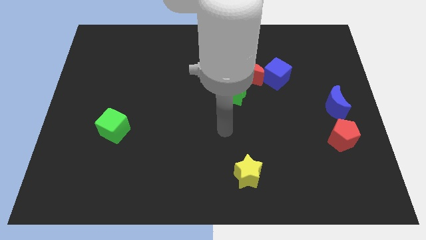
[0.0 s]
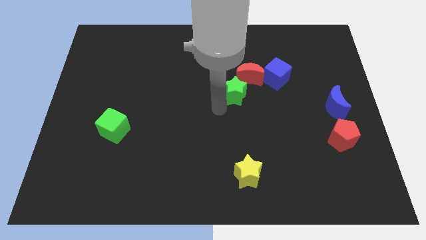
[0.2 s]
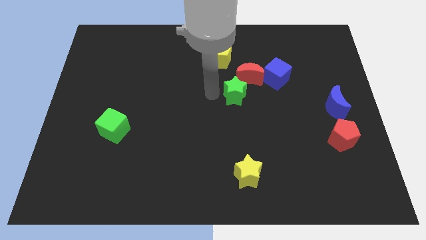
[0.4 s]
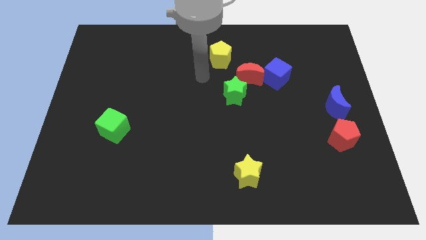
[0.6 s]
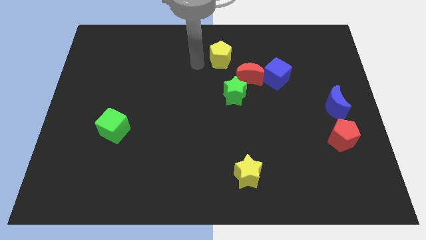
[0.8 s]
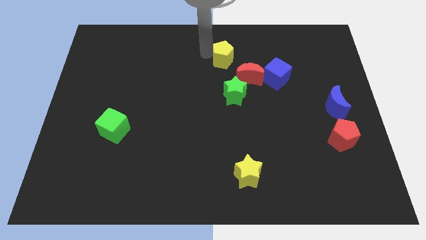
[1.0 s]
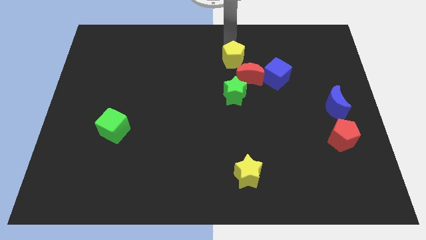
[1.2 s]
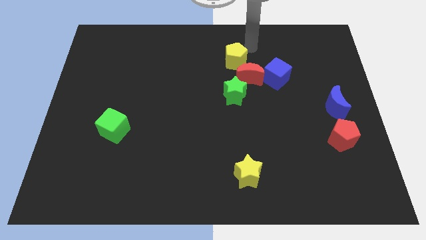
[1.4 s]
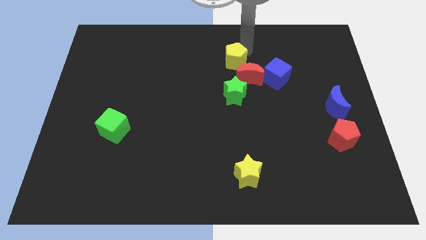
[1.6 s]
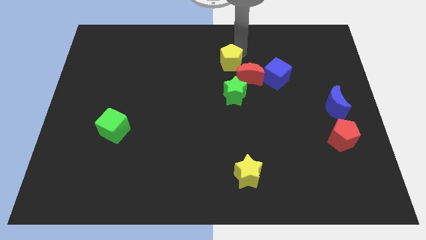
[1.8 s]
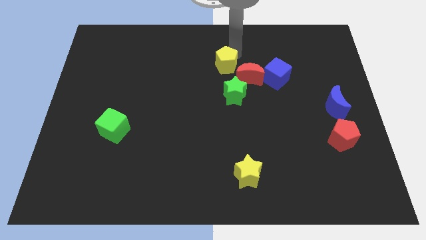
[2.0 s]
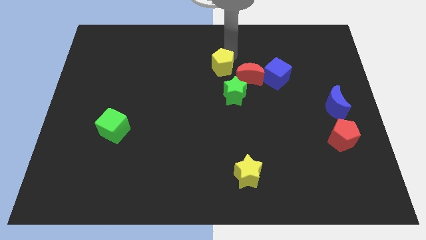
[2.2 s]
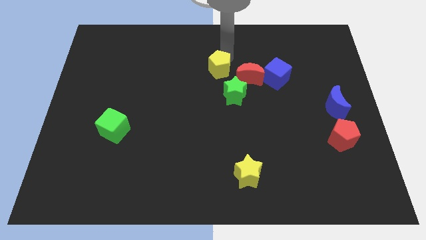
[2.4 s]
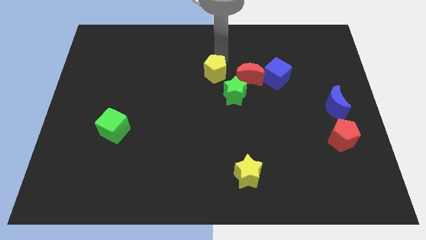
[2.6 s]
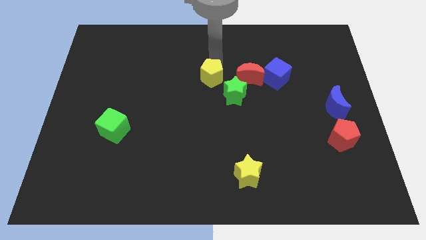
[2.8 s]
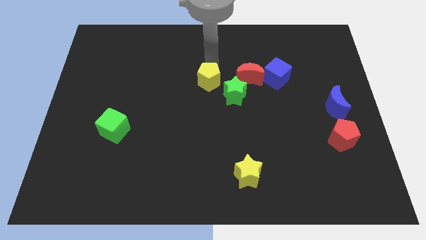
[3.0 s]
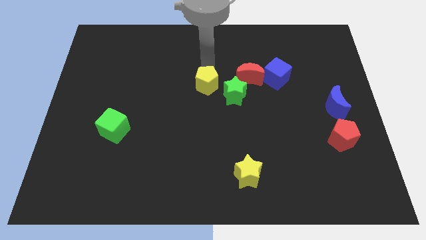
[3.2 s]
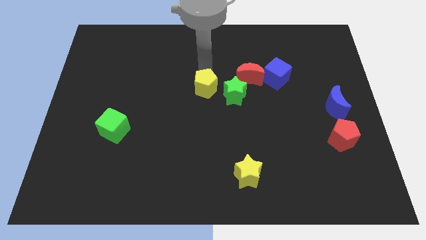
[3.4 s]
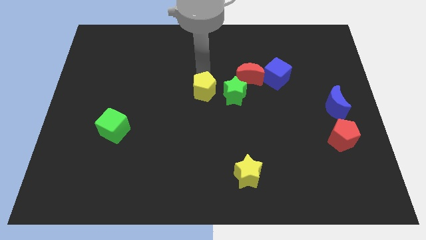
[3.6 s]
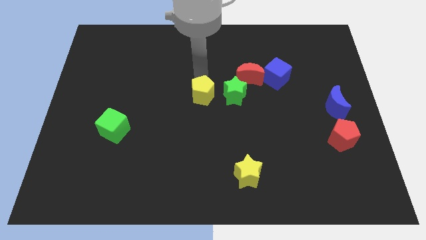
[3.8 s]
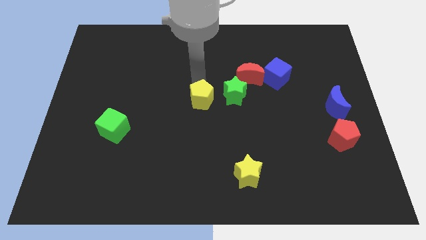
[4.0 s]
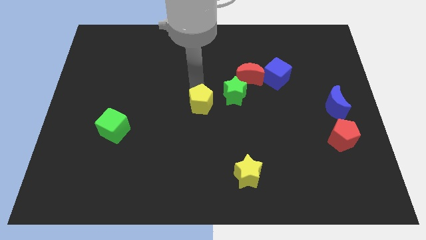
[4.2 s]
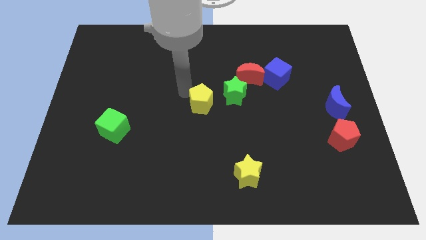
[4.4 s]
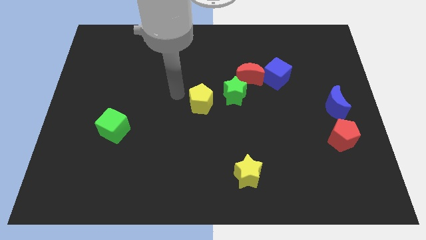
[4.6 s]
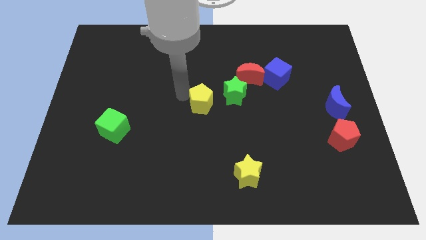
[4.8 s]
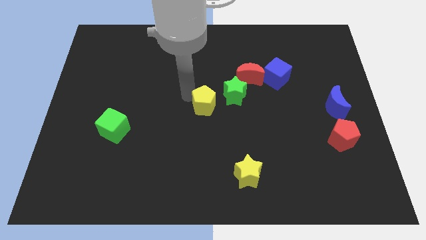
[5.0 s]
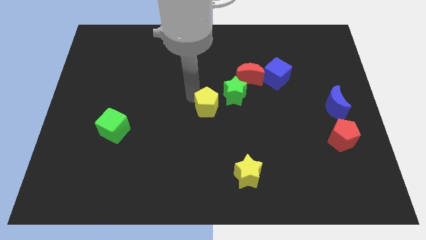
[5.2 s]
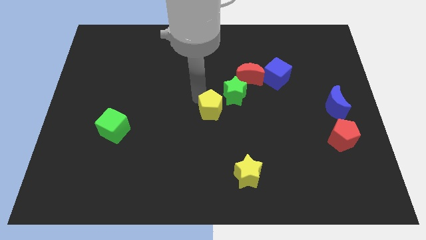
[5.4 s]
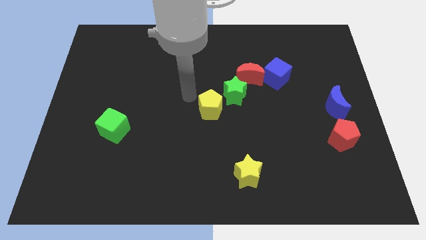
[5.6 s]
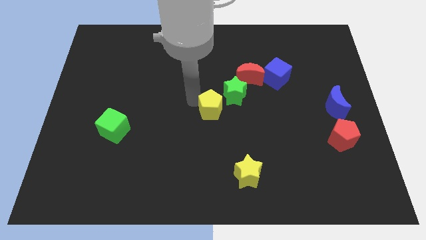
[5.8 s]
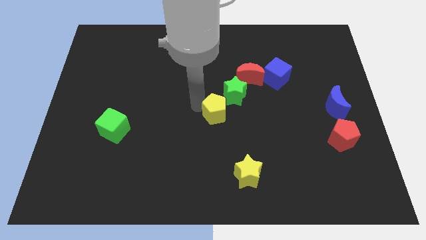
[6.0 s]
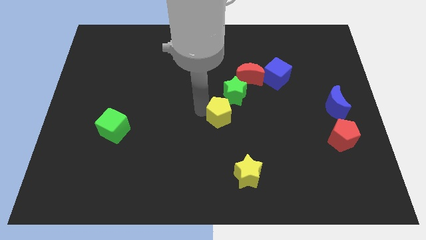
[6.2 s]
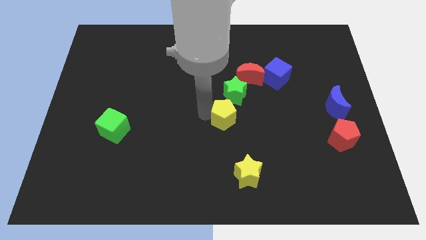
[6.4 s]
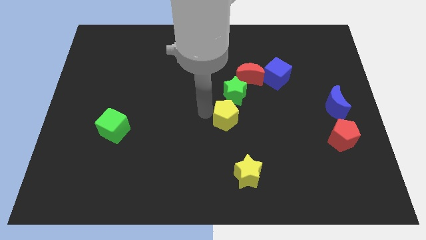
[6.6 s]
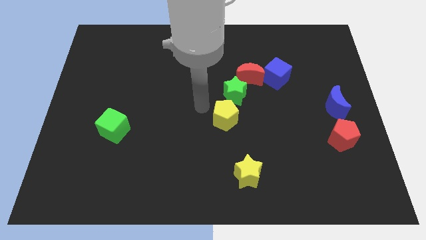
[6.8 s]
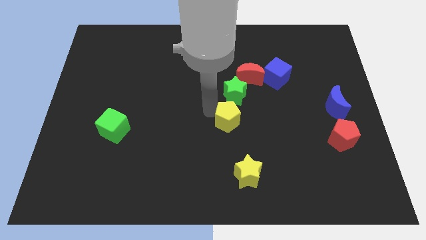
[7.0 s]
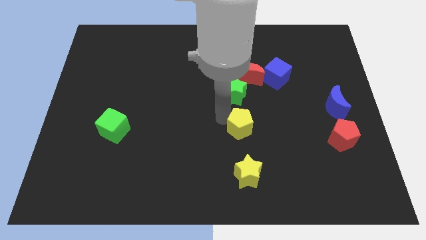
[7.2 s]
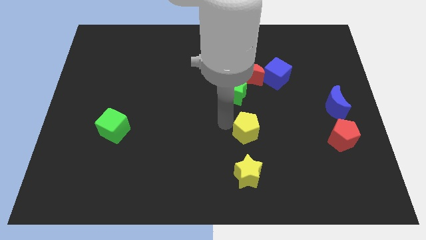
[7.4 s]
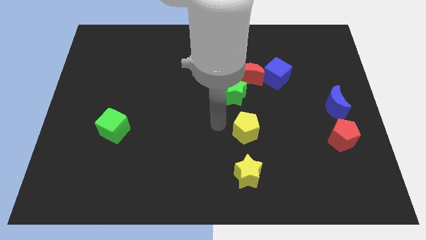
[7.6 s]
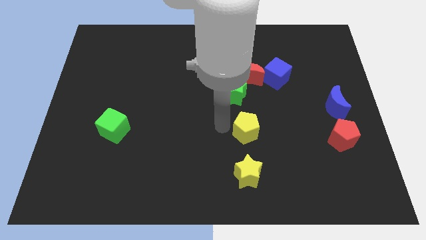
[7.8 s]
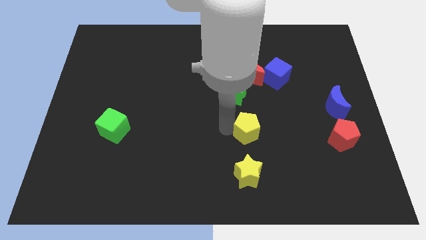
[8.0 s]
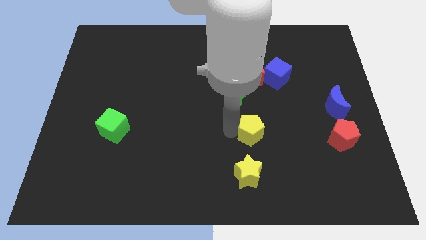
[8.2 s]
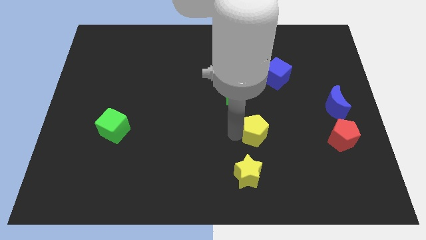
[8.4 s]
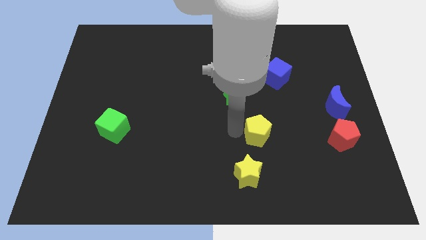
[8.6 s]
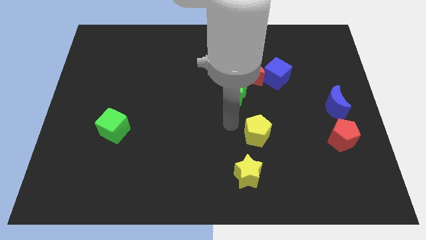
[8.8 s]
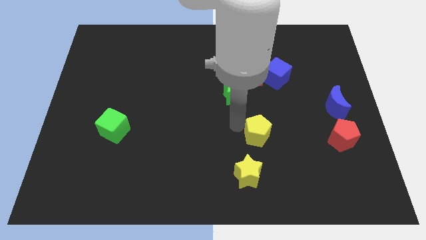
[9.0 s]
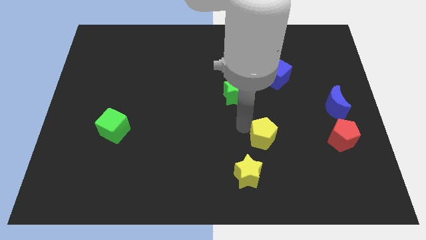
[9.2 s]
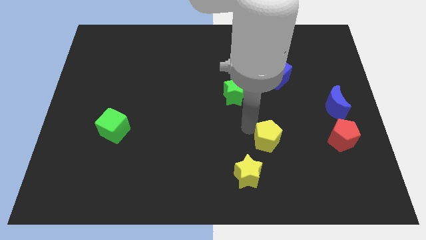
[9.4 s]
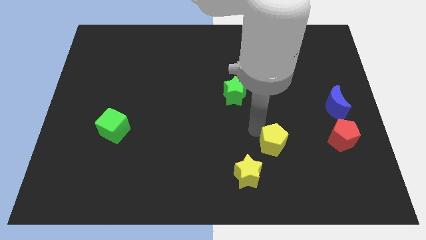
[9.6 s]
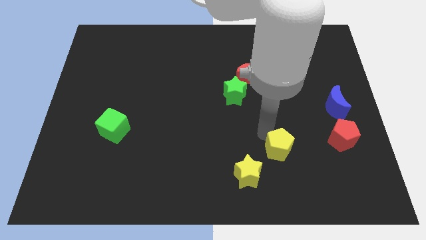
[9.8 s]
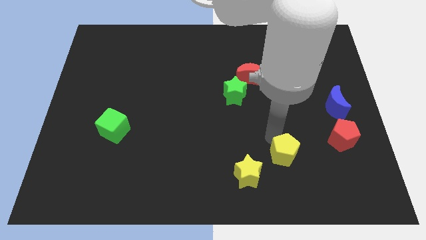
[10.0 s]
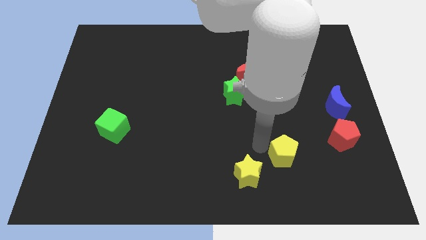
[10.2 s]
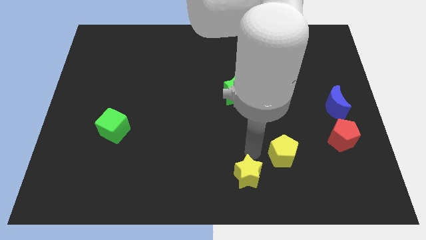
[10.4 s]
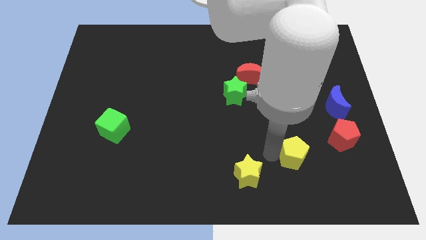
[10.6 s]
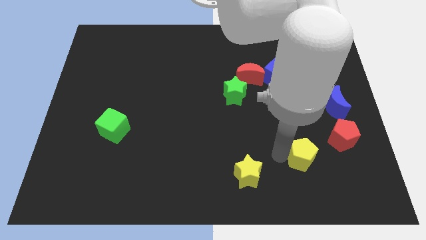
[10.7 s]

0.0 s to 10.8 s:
push the yellow pentagon to the bottom left side of the red pentagon

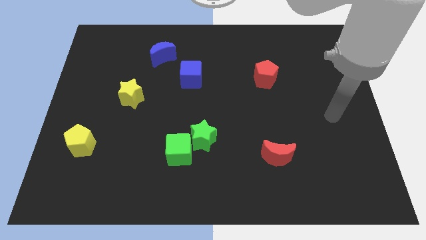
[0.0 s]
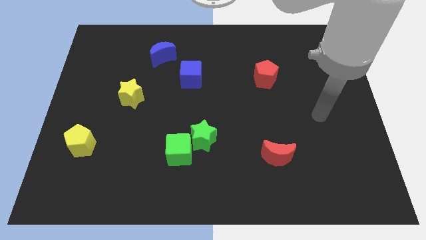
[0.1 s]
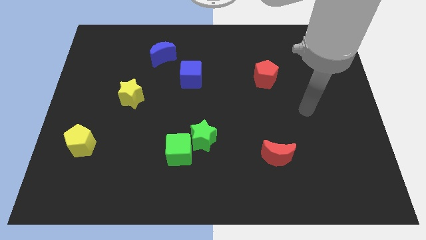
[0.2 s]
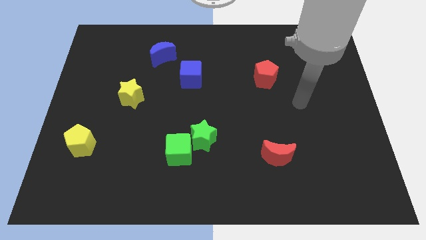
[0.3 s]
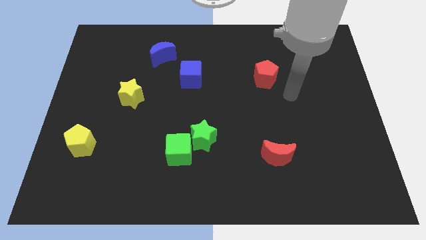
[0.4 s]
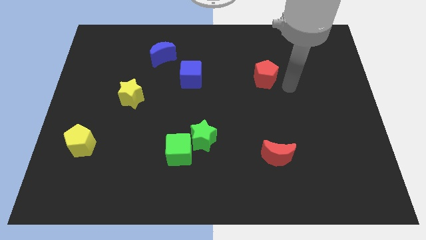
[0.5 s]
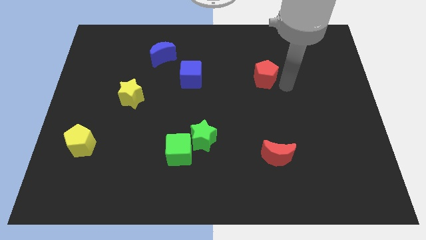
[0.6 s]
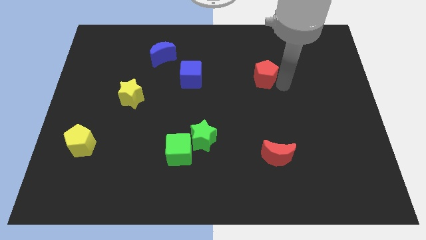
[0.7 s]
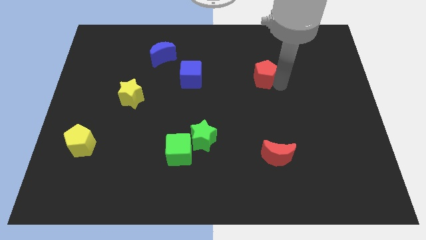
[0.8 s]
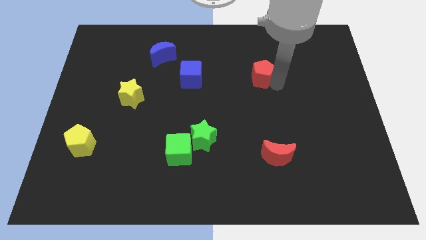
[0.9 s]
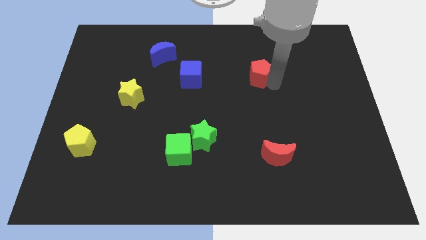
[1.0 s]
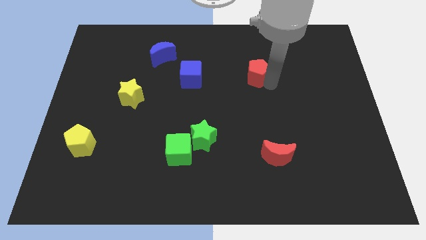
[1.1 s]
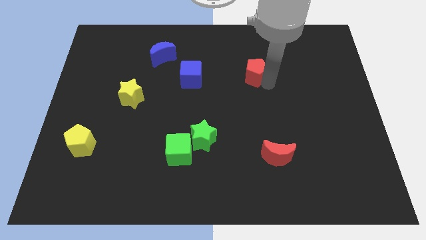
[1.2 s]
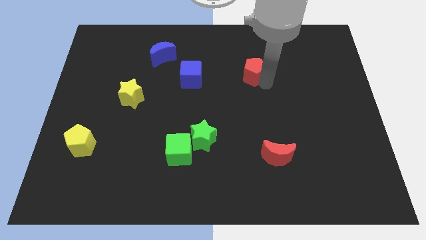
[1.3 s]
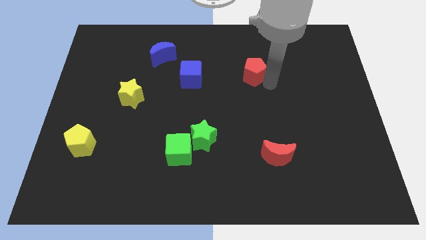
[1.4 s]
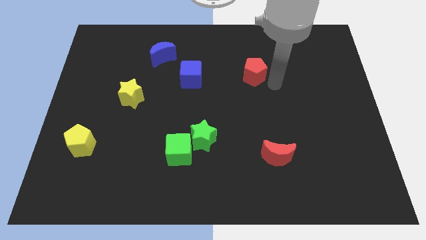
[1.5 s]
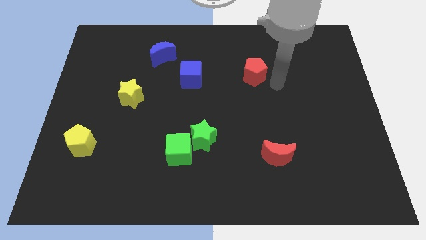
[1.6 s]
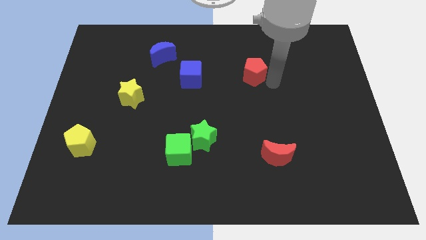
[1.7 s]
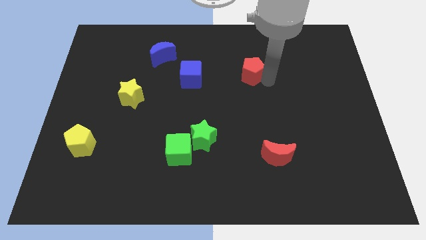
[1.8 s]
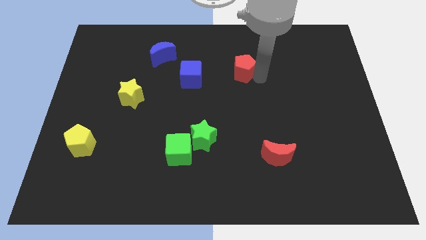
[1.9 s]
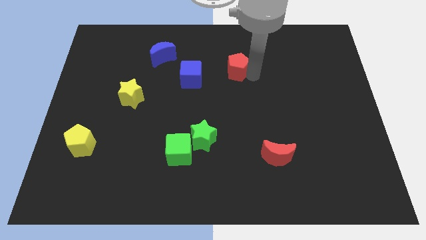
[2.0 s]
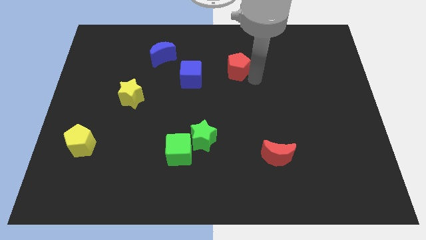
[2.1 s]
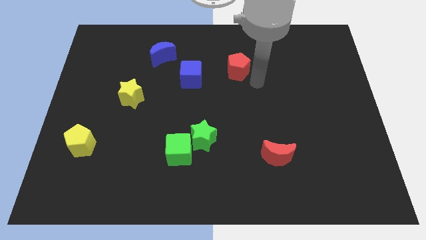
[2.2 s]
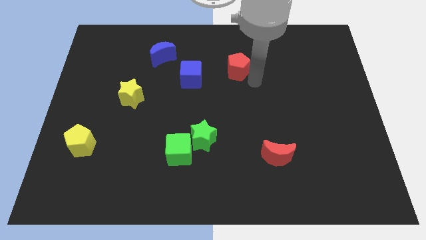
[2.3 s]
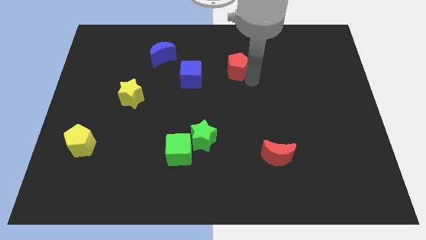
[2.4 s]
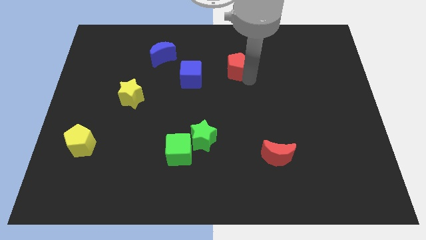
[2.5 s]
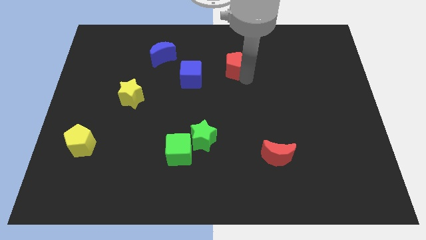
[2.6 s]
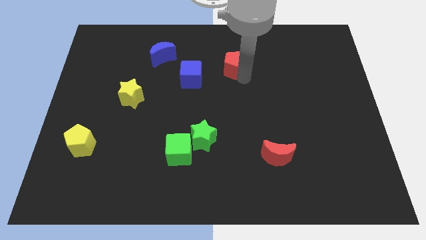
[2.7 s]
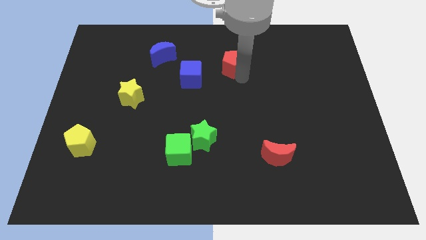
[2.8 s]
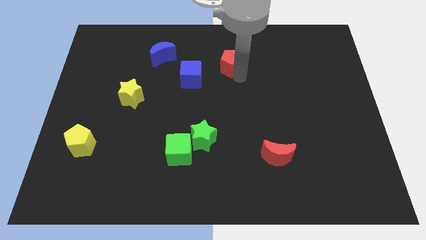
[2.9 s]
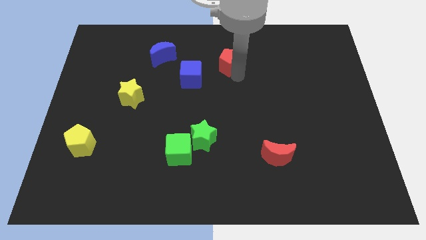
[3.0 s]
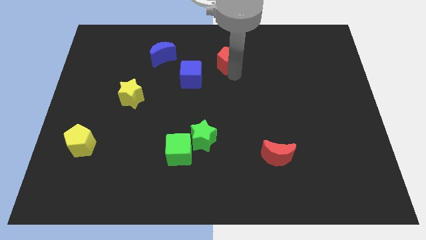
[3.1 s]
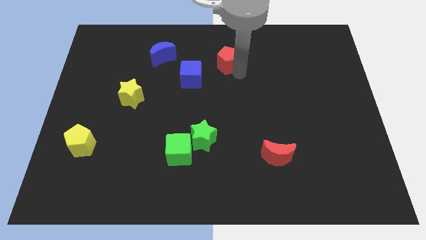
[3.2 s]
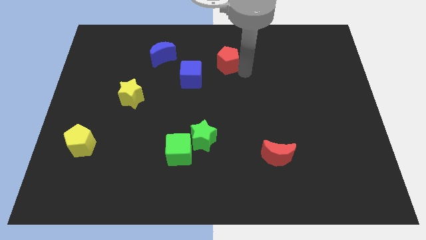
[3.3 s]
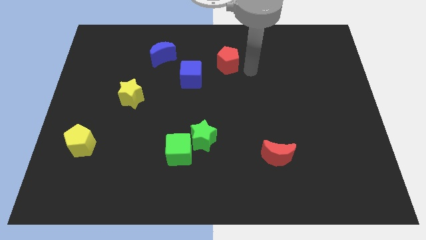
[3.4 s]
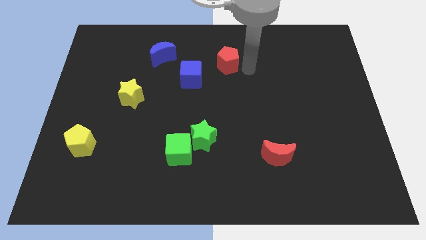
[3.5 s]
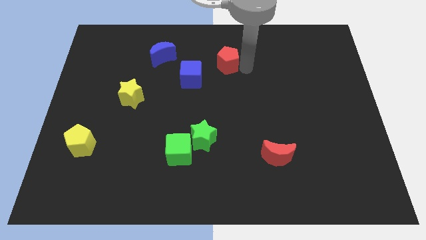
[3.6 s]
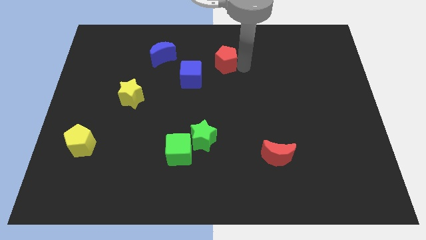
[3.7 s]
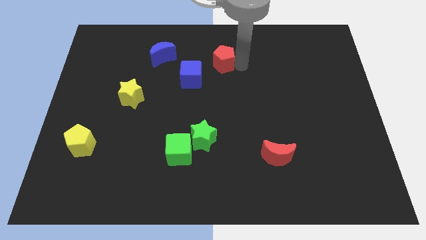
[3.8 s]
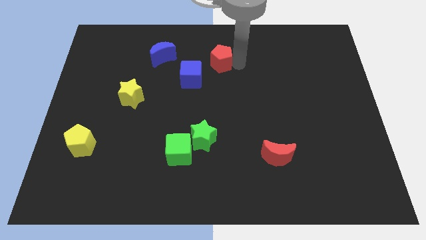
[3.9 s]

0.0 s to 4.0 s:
push the red pentagon right of the blue moon
